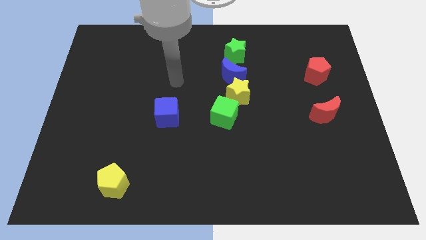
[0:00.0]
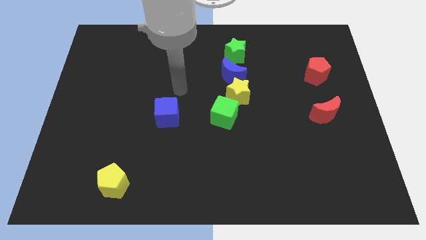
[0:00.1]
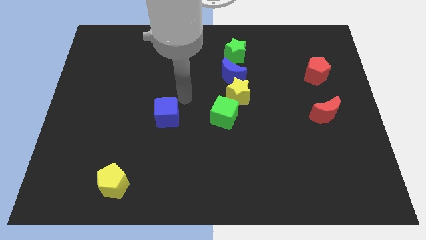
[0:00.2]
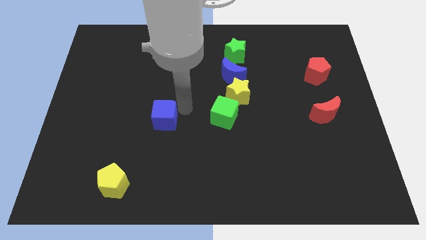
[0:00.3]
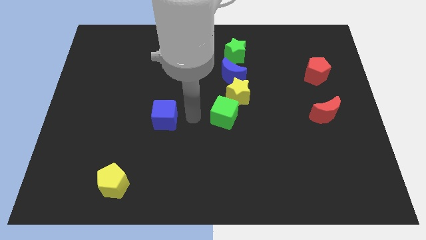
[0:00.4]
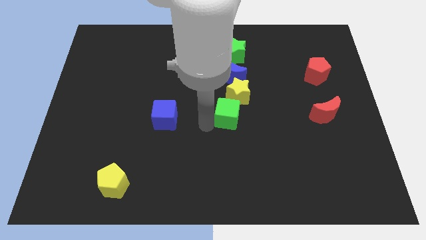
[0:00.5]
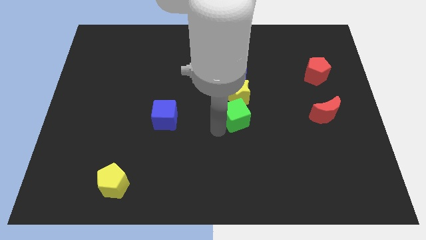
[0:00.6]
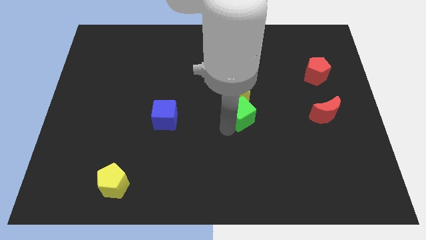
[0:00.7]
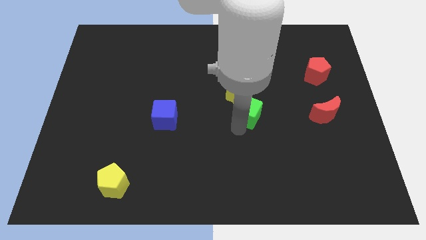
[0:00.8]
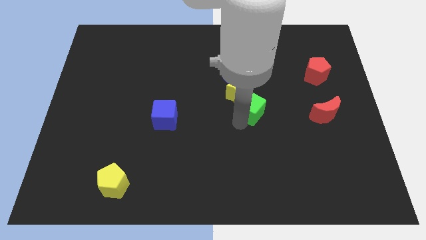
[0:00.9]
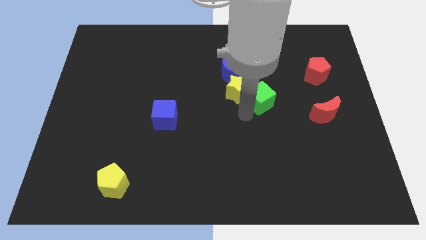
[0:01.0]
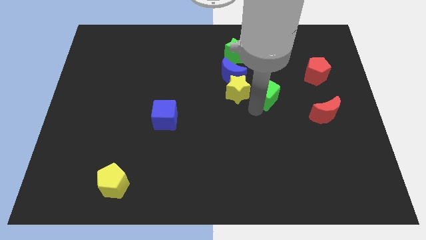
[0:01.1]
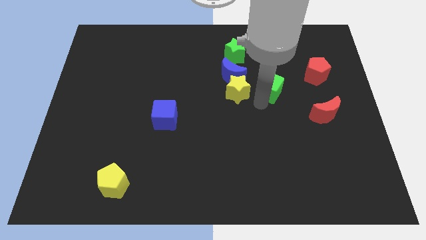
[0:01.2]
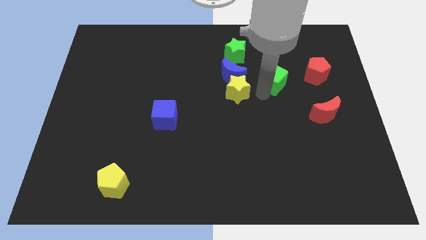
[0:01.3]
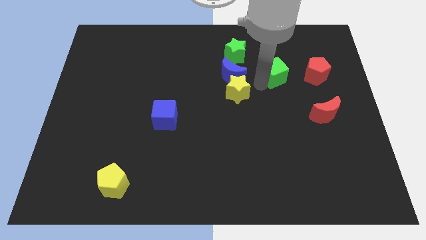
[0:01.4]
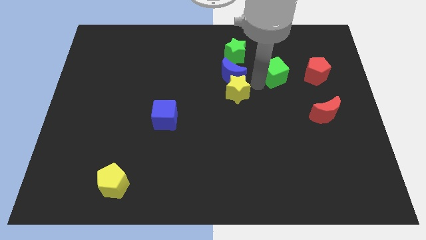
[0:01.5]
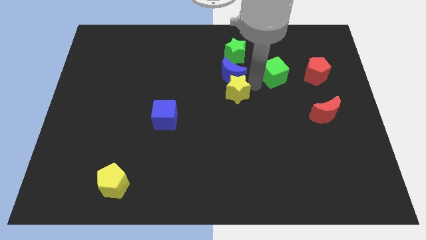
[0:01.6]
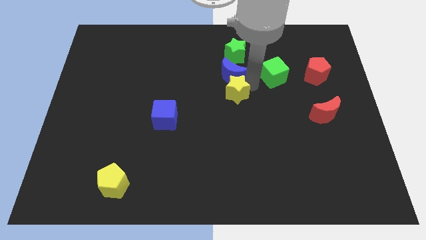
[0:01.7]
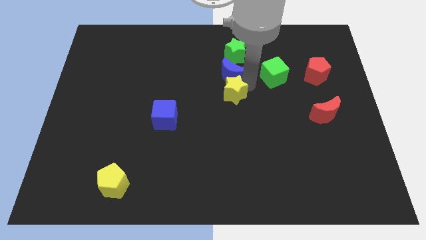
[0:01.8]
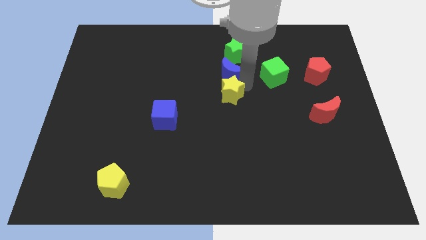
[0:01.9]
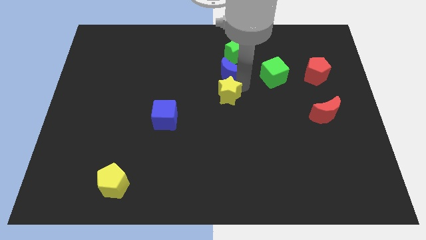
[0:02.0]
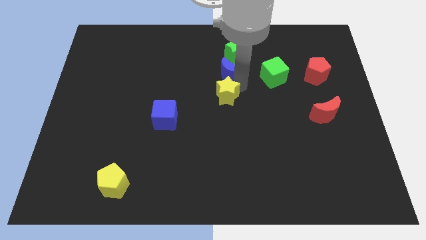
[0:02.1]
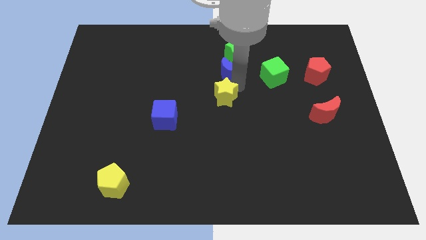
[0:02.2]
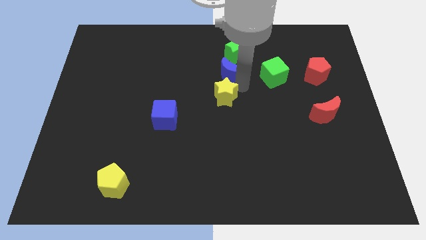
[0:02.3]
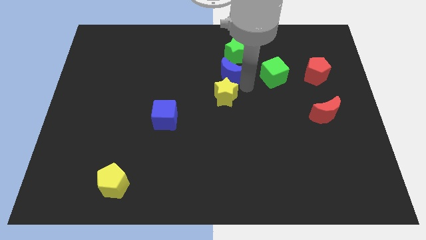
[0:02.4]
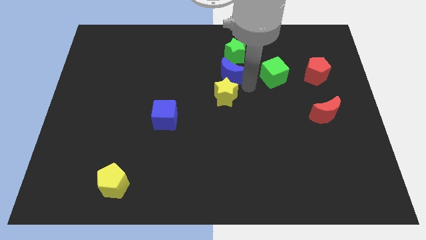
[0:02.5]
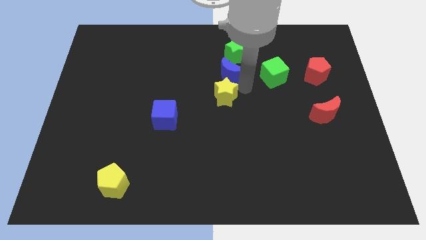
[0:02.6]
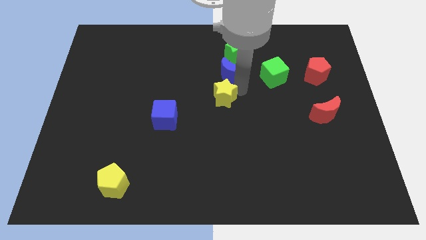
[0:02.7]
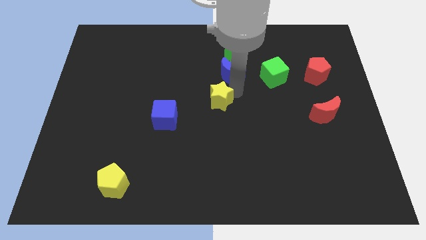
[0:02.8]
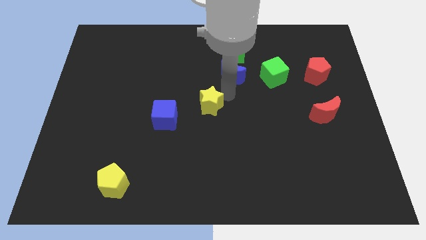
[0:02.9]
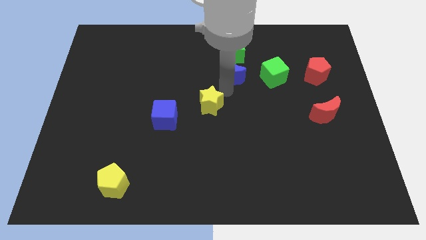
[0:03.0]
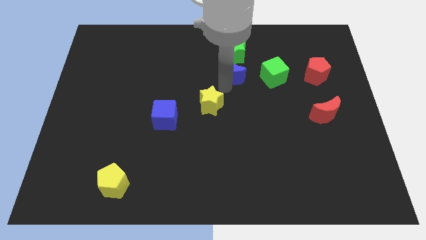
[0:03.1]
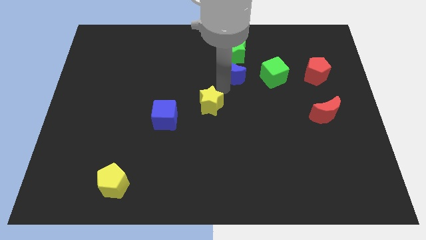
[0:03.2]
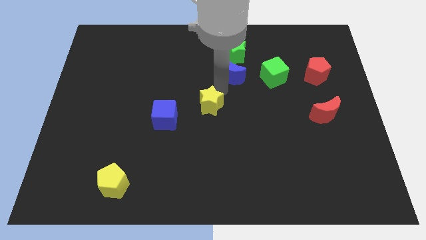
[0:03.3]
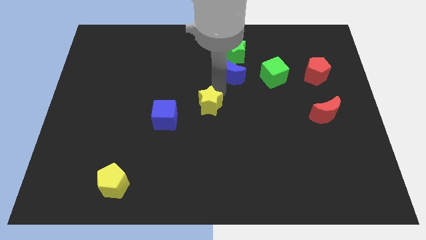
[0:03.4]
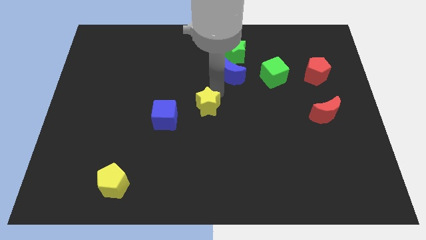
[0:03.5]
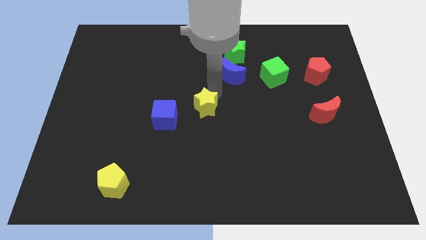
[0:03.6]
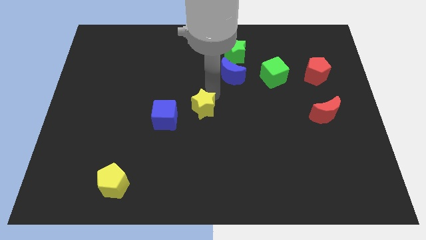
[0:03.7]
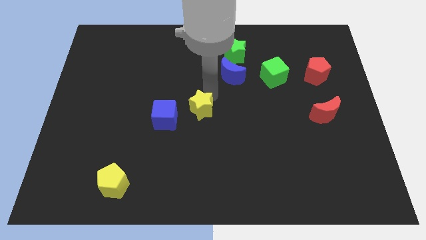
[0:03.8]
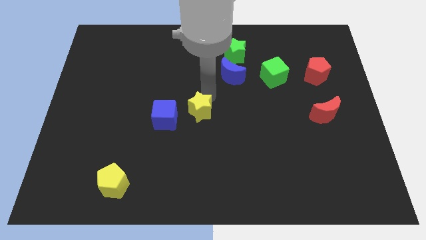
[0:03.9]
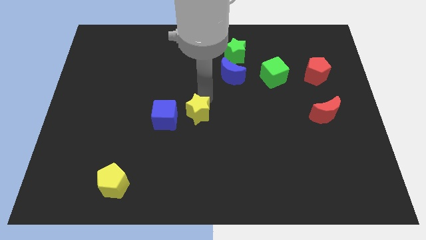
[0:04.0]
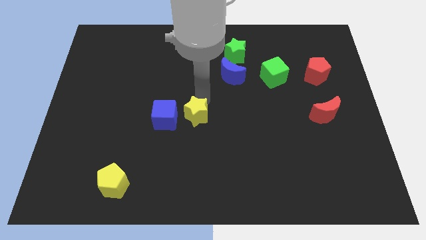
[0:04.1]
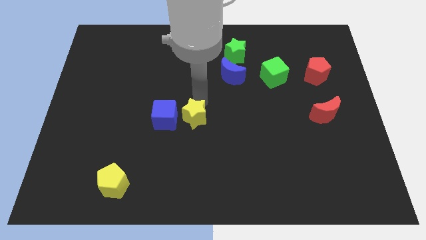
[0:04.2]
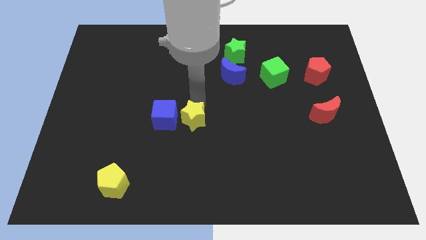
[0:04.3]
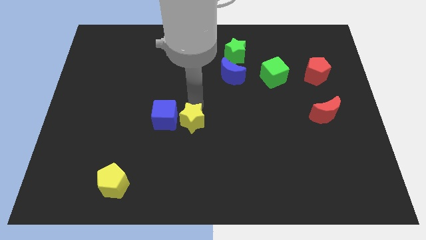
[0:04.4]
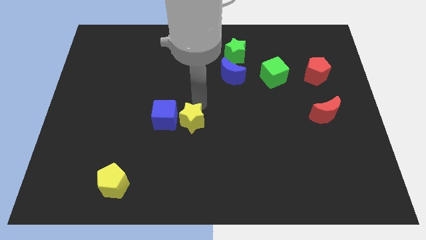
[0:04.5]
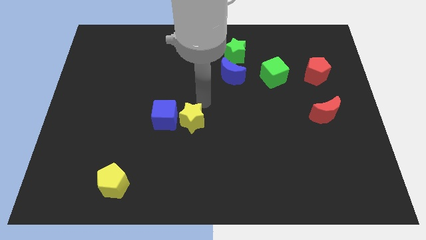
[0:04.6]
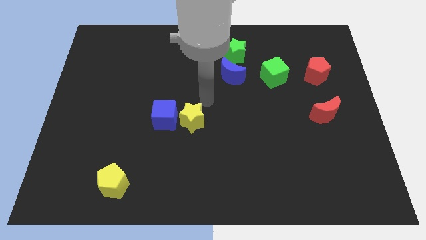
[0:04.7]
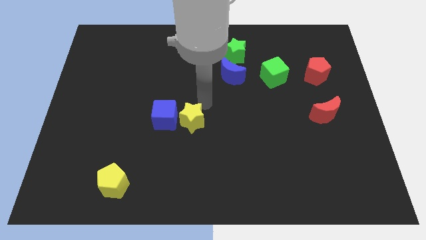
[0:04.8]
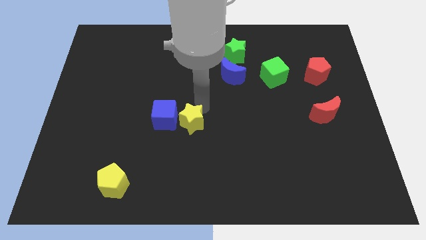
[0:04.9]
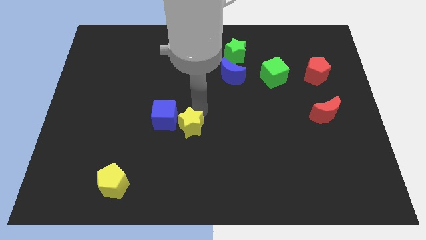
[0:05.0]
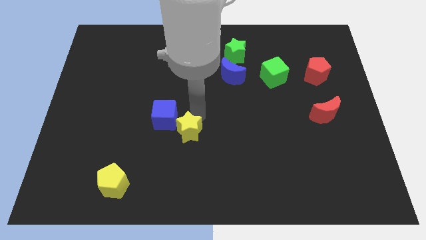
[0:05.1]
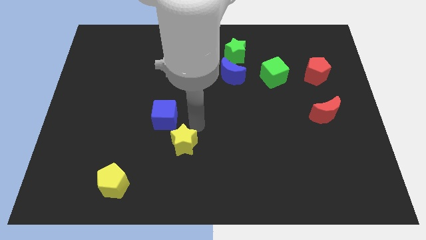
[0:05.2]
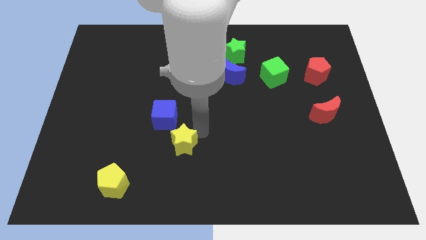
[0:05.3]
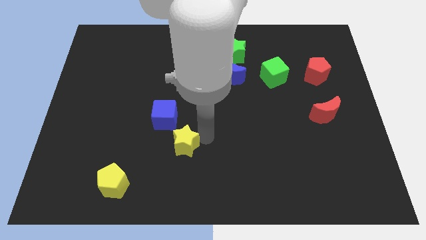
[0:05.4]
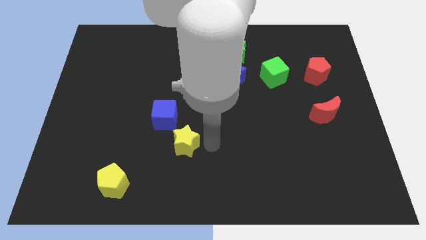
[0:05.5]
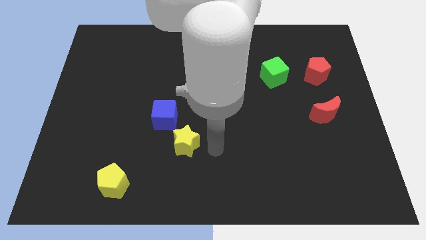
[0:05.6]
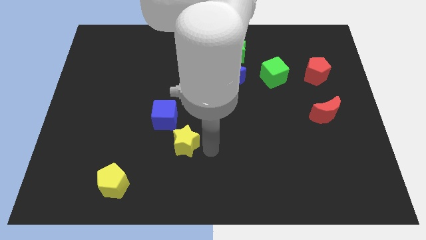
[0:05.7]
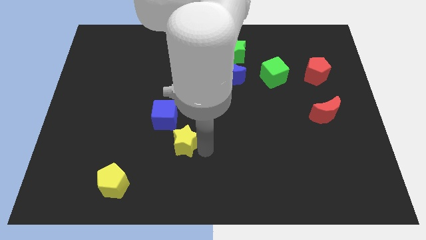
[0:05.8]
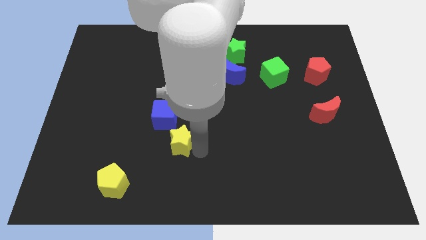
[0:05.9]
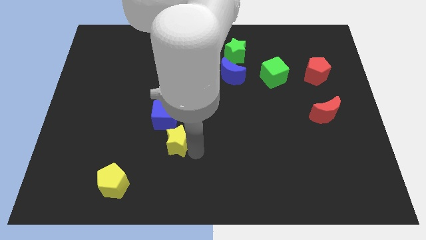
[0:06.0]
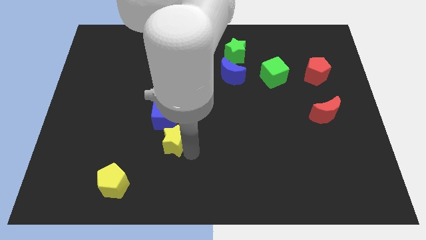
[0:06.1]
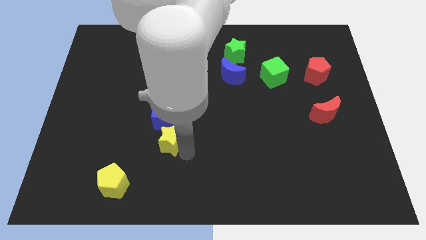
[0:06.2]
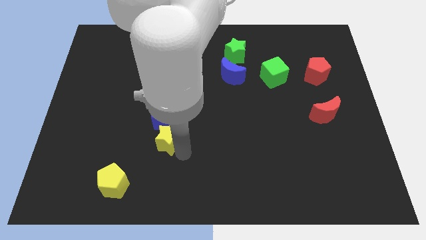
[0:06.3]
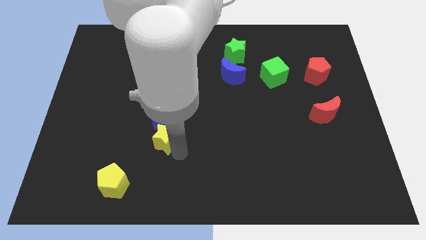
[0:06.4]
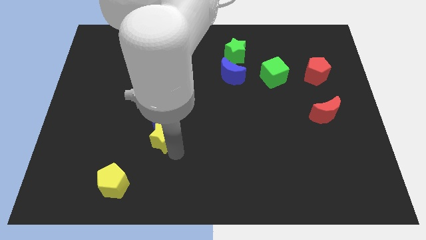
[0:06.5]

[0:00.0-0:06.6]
put the yellow star diagonally down and to the left of the blue cube

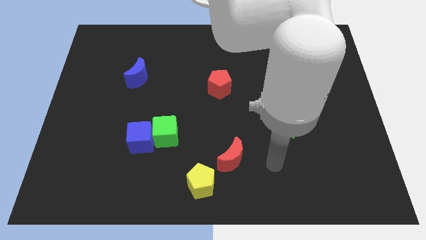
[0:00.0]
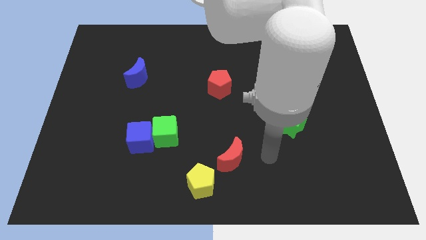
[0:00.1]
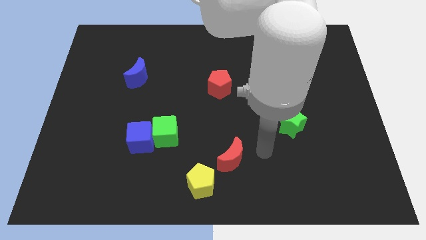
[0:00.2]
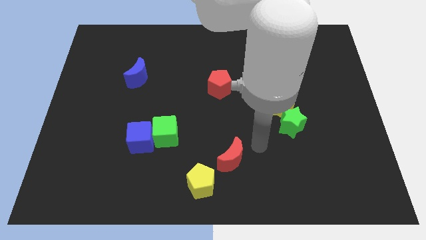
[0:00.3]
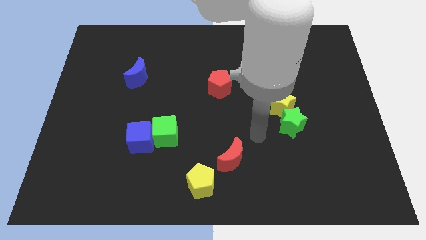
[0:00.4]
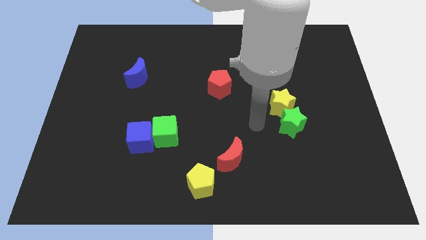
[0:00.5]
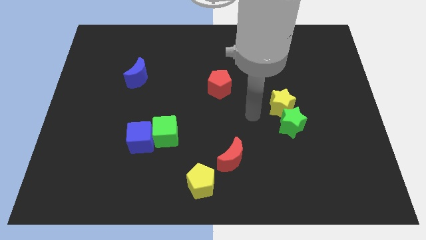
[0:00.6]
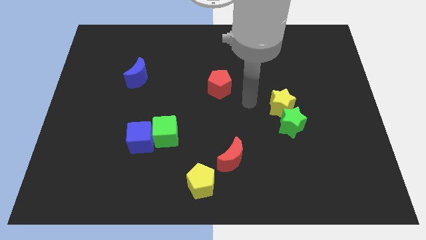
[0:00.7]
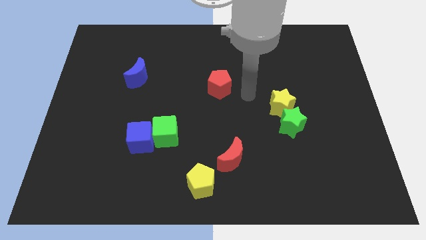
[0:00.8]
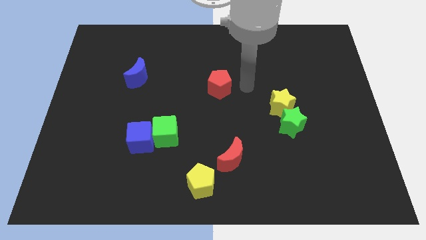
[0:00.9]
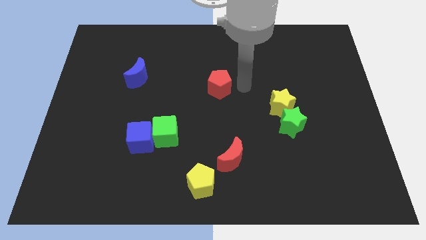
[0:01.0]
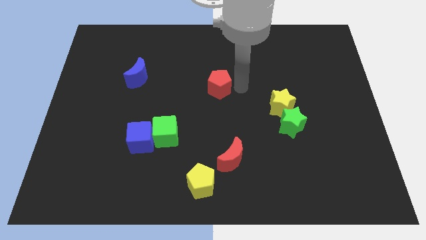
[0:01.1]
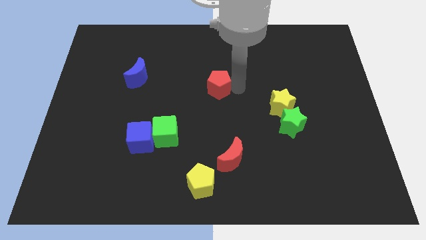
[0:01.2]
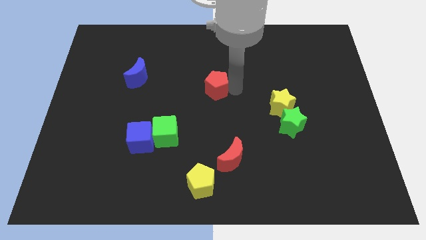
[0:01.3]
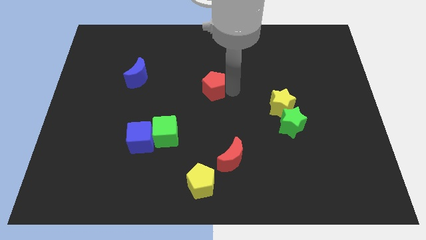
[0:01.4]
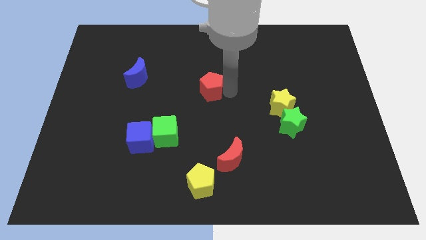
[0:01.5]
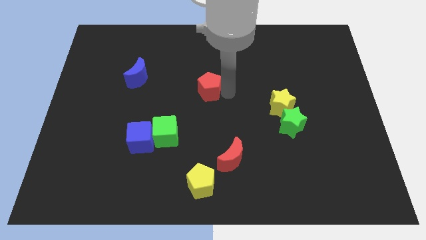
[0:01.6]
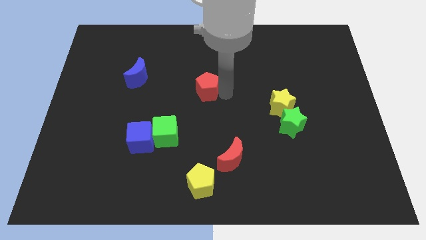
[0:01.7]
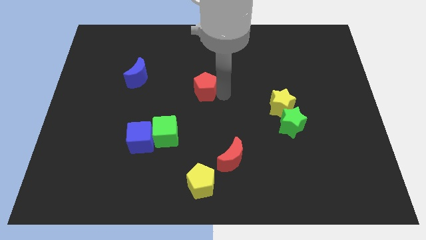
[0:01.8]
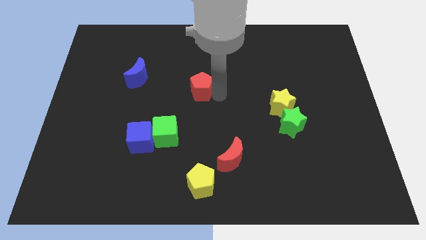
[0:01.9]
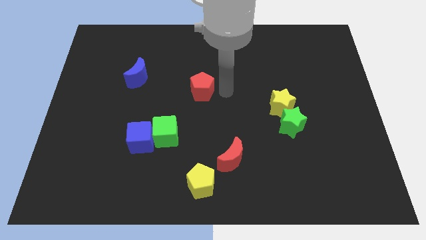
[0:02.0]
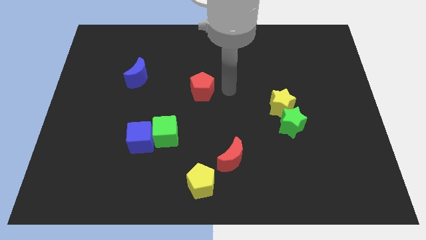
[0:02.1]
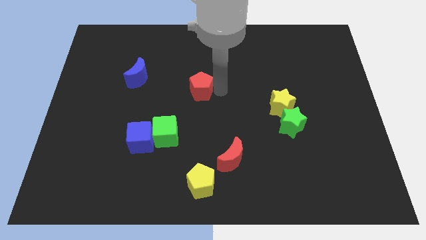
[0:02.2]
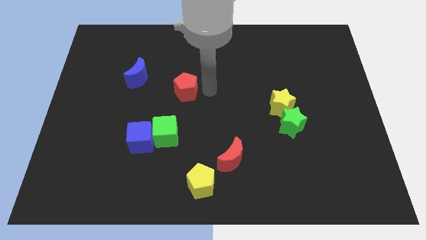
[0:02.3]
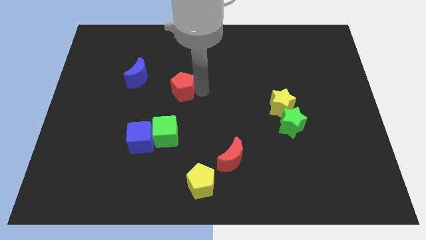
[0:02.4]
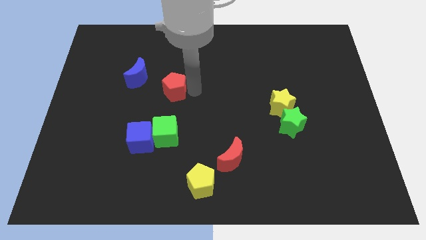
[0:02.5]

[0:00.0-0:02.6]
push the red pentagon to the bottom right of the blue moon
